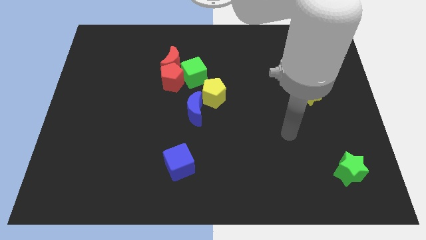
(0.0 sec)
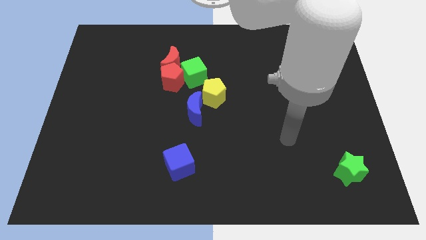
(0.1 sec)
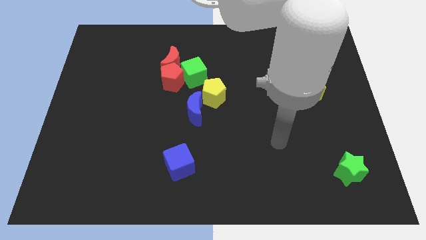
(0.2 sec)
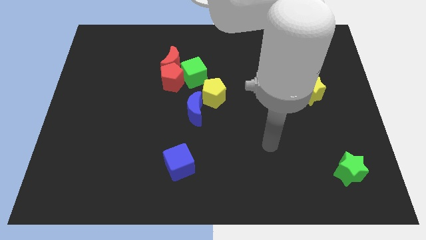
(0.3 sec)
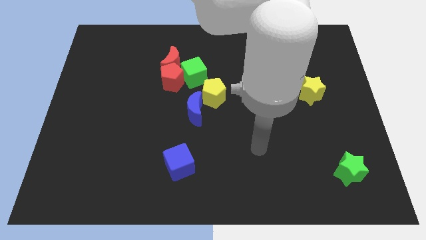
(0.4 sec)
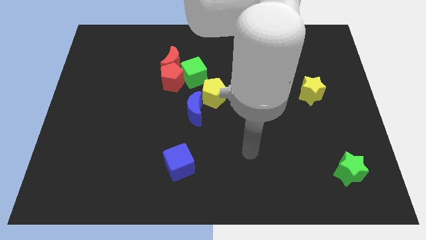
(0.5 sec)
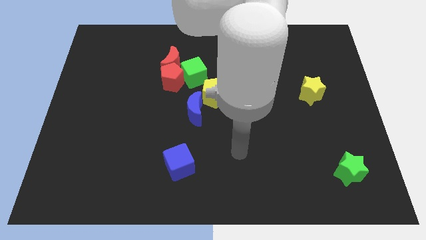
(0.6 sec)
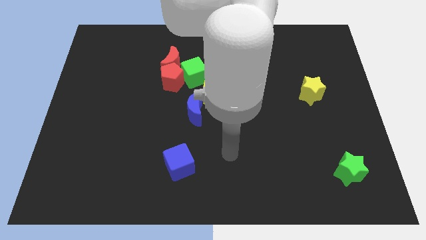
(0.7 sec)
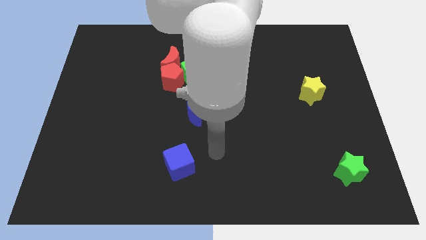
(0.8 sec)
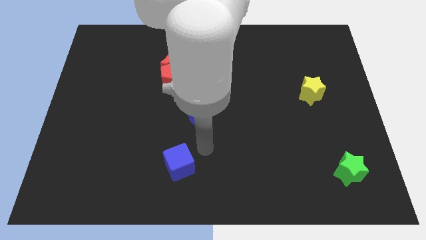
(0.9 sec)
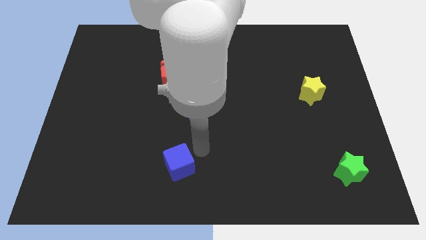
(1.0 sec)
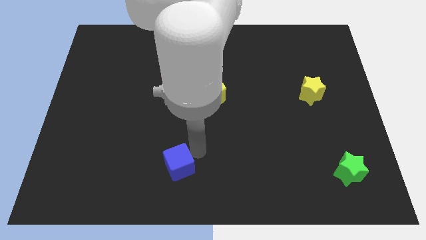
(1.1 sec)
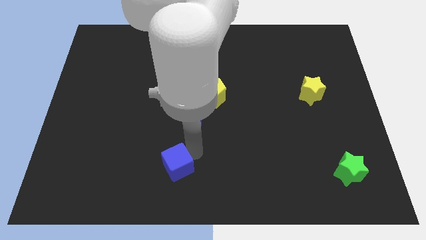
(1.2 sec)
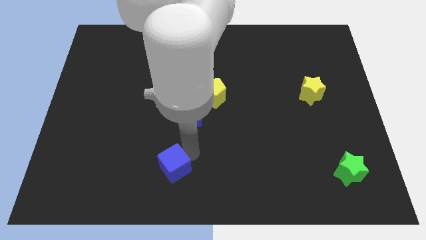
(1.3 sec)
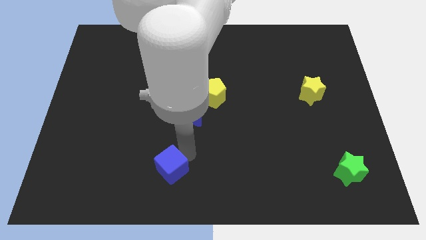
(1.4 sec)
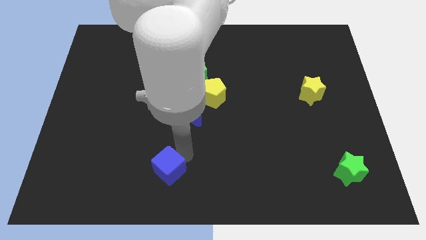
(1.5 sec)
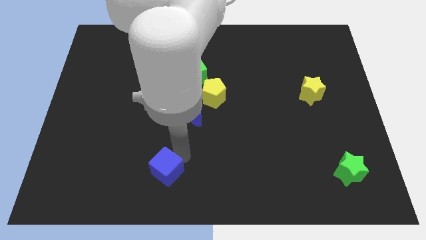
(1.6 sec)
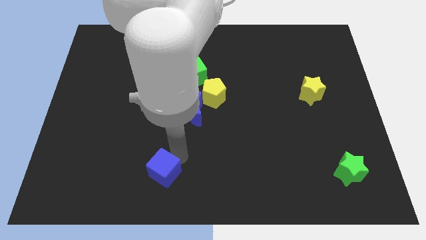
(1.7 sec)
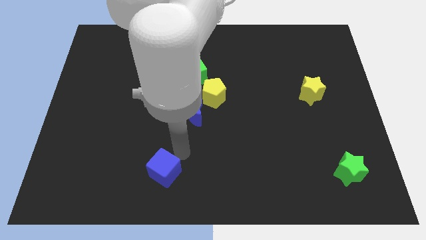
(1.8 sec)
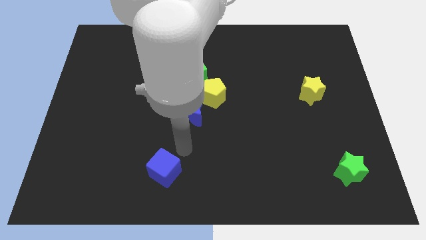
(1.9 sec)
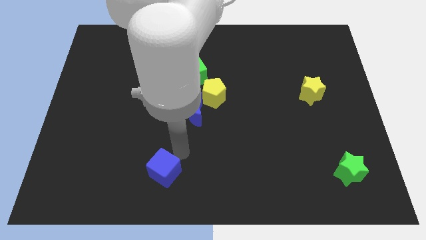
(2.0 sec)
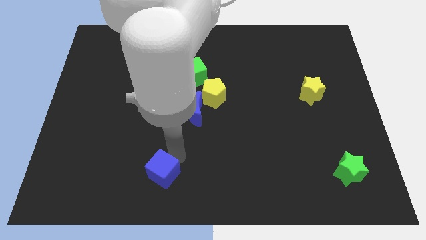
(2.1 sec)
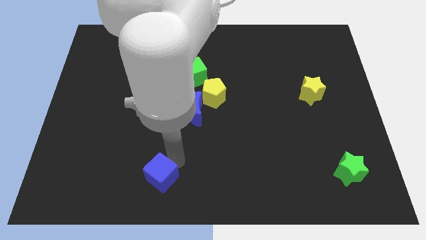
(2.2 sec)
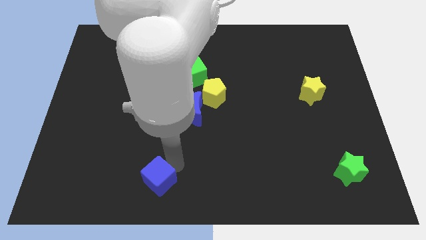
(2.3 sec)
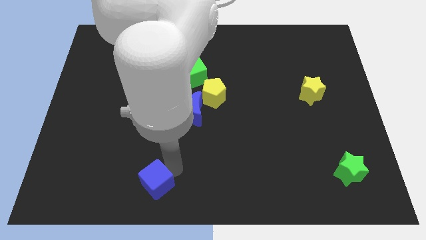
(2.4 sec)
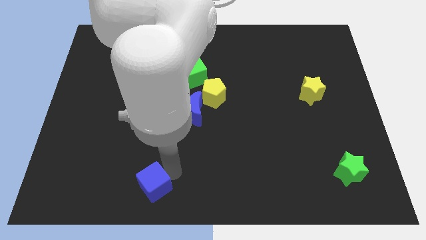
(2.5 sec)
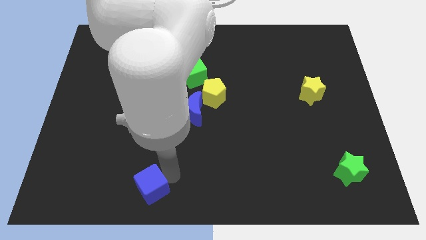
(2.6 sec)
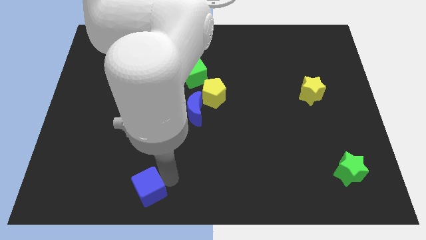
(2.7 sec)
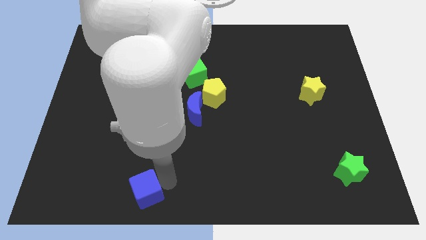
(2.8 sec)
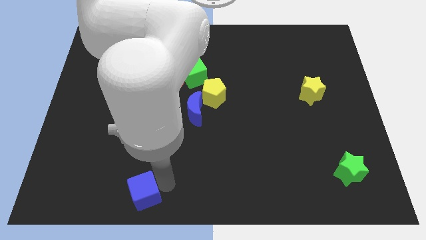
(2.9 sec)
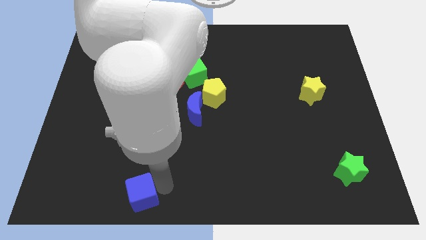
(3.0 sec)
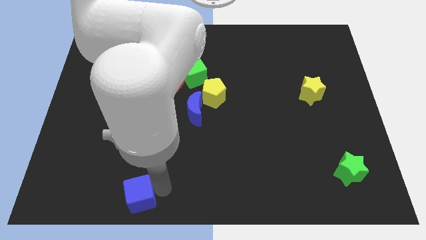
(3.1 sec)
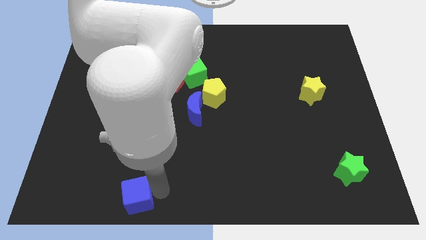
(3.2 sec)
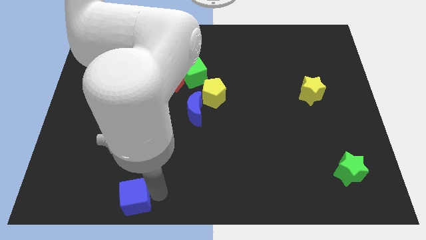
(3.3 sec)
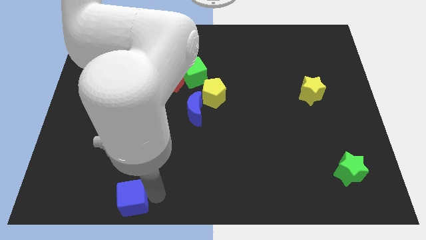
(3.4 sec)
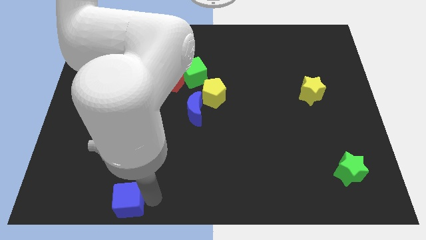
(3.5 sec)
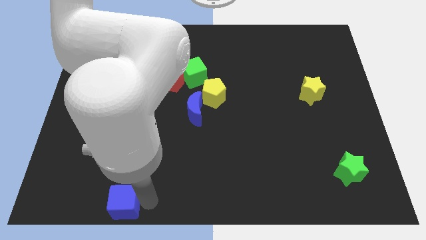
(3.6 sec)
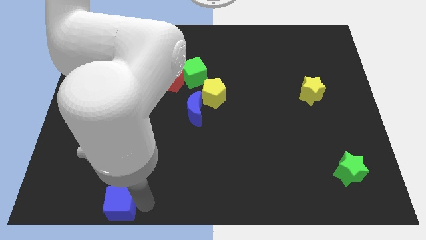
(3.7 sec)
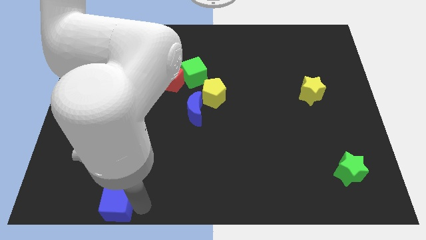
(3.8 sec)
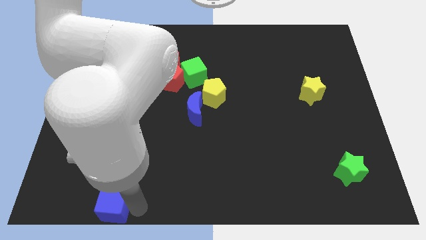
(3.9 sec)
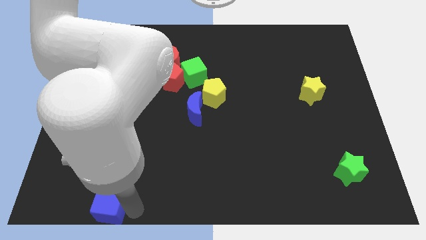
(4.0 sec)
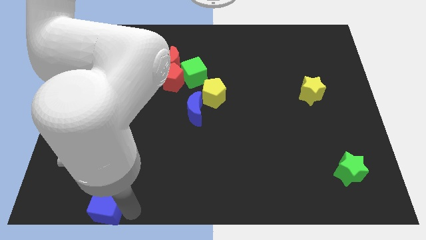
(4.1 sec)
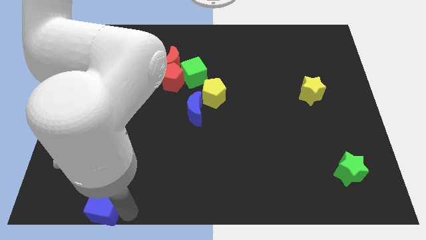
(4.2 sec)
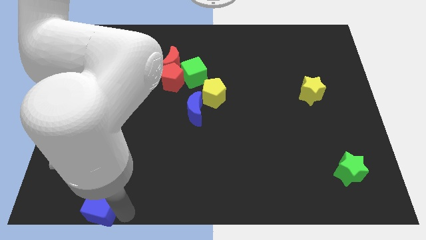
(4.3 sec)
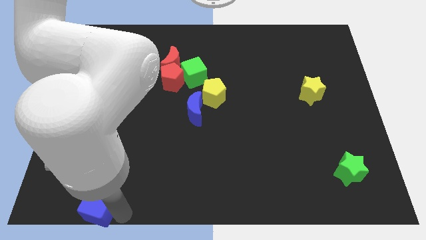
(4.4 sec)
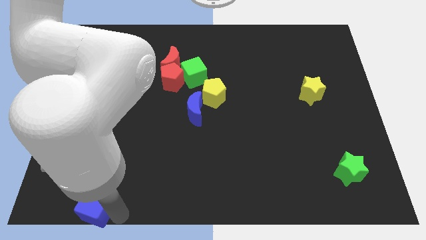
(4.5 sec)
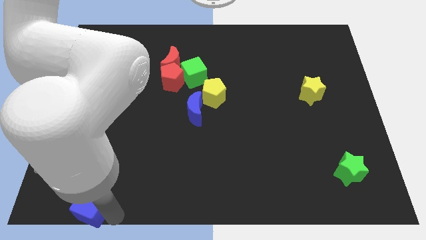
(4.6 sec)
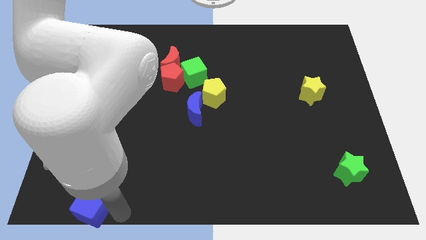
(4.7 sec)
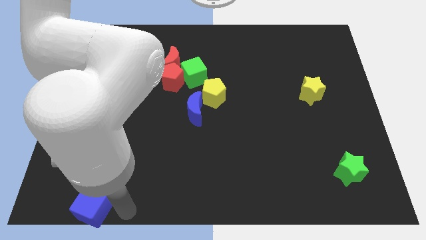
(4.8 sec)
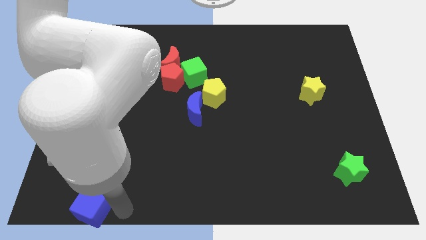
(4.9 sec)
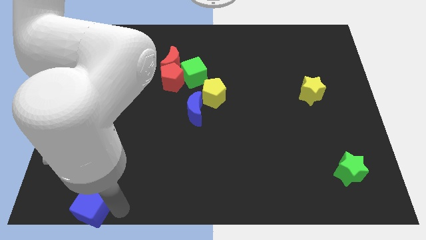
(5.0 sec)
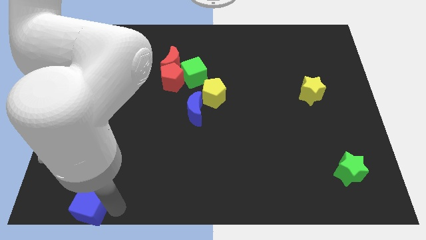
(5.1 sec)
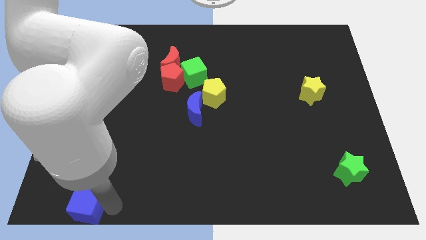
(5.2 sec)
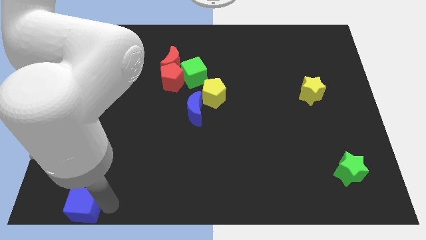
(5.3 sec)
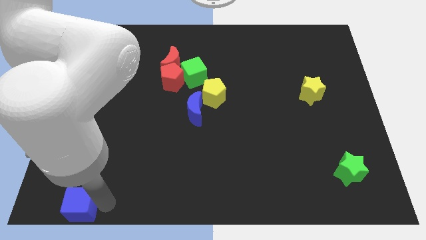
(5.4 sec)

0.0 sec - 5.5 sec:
push the blue cube to the bottom left corner
